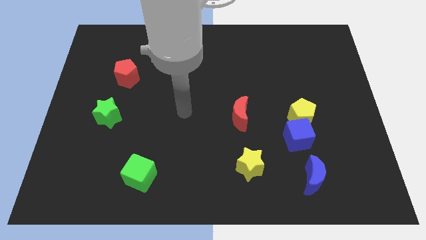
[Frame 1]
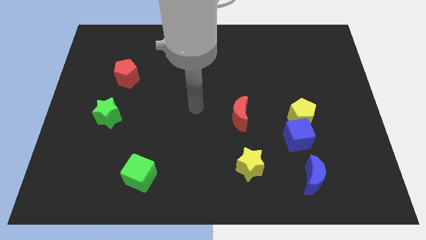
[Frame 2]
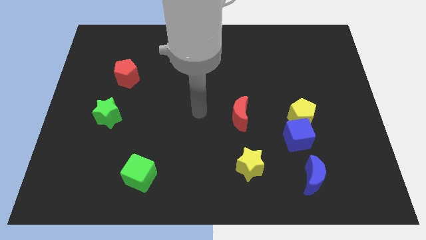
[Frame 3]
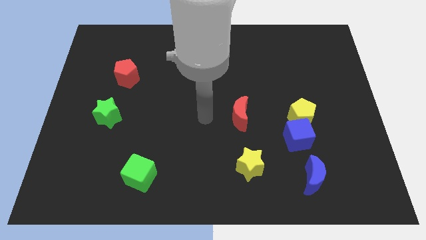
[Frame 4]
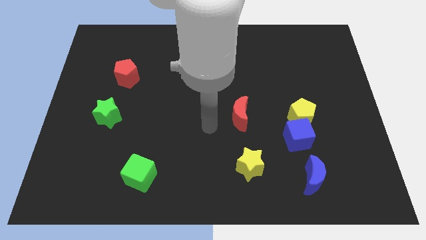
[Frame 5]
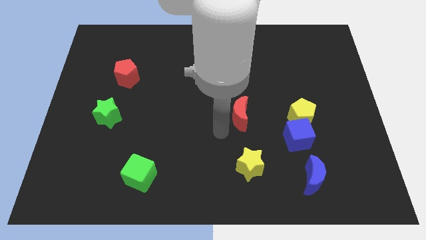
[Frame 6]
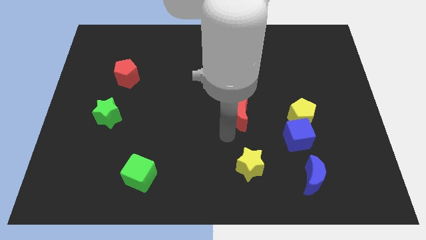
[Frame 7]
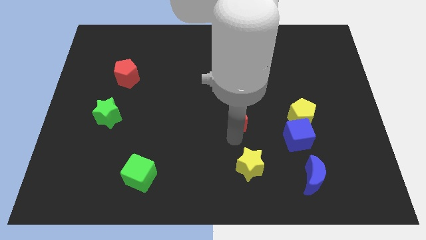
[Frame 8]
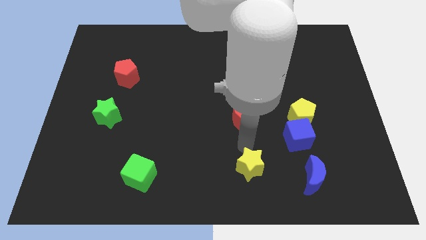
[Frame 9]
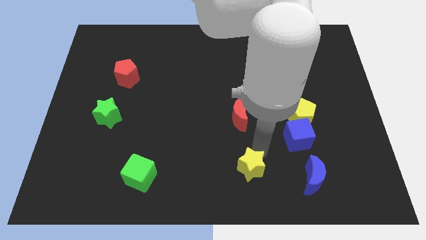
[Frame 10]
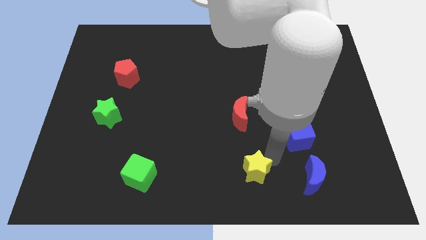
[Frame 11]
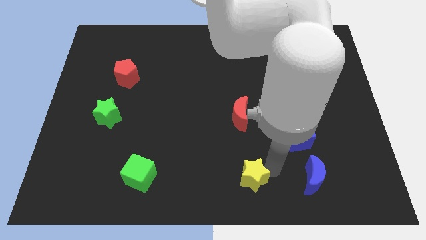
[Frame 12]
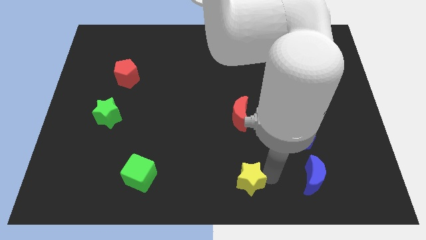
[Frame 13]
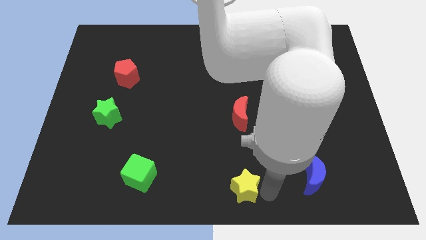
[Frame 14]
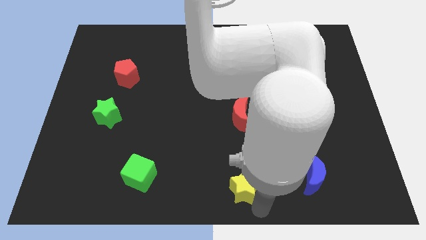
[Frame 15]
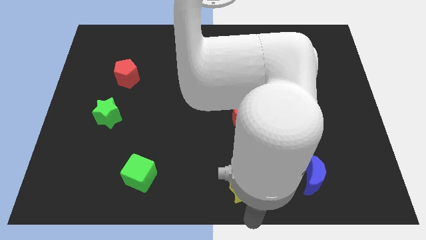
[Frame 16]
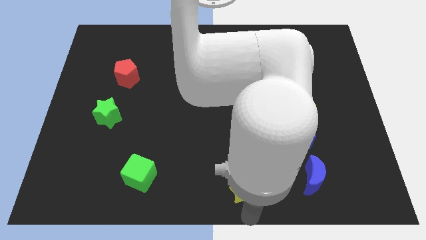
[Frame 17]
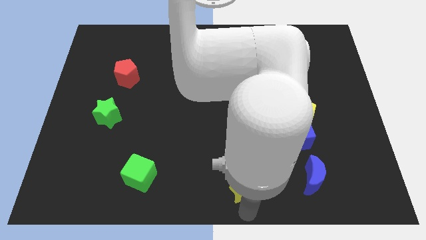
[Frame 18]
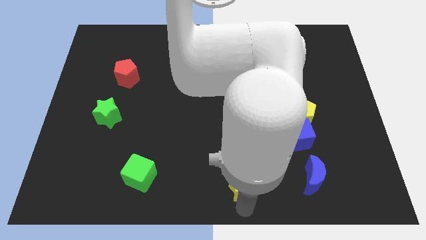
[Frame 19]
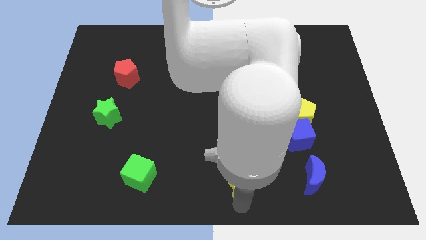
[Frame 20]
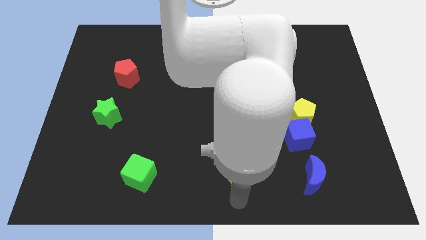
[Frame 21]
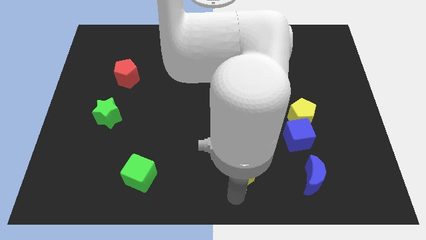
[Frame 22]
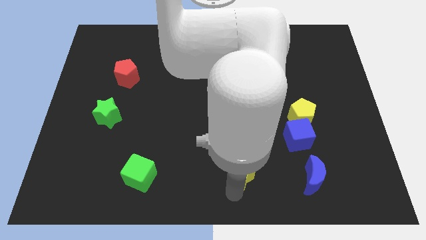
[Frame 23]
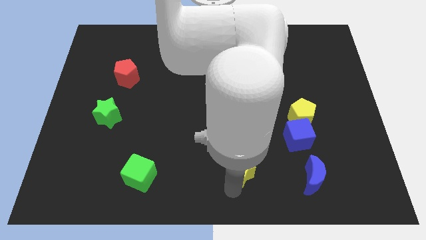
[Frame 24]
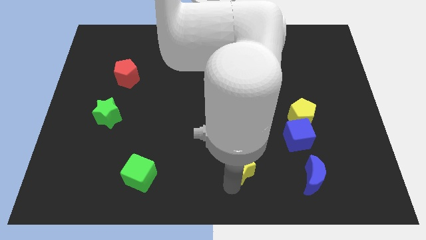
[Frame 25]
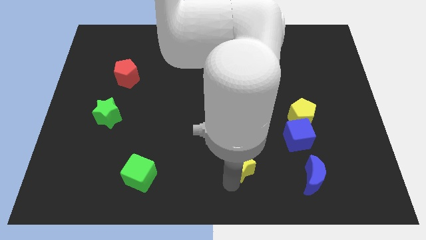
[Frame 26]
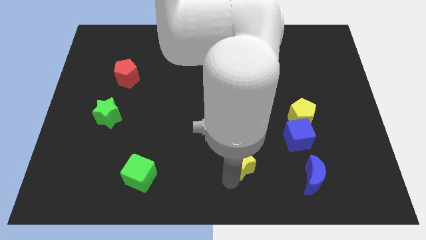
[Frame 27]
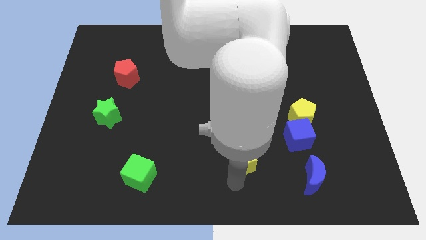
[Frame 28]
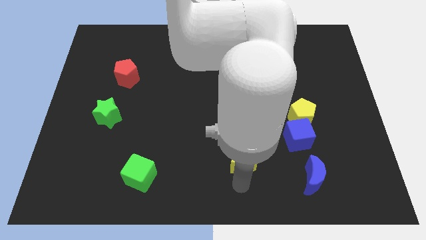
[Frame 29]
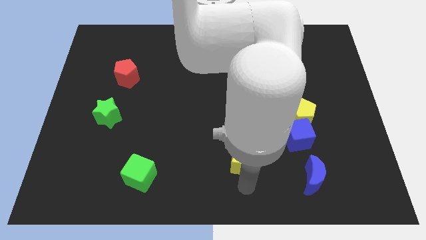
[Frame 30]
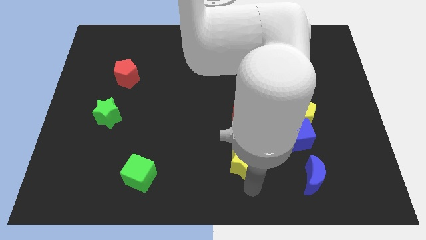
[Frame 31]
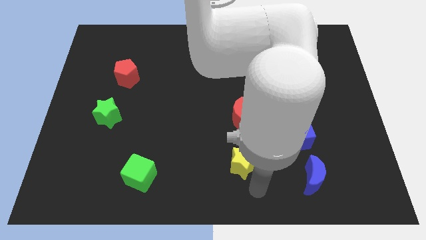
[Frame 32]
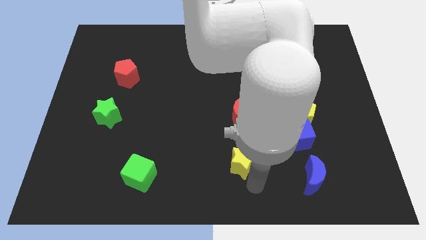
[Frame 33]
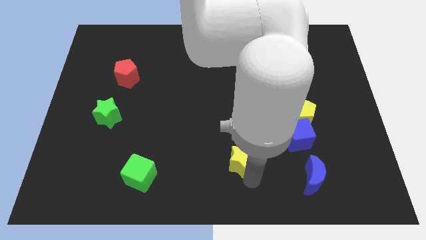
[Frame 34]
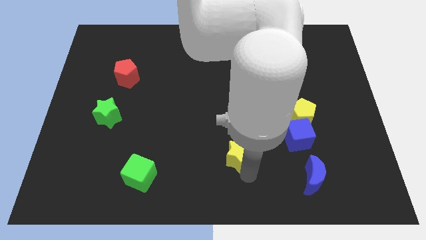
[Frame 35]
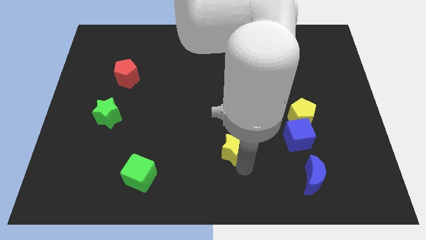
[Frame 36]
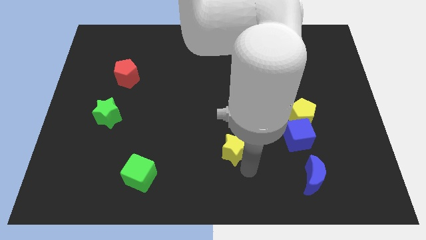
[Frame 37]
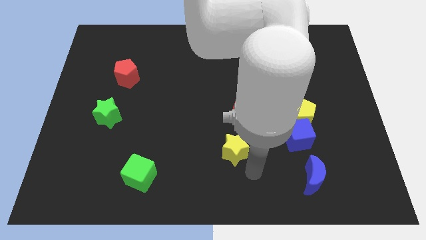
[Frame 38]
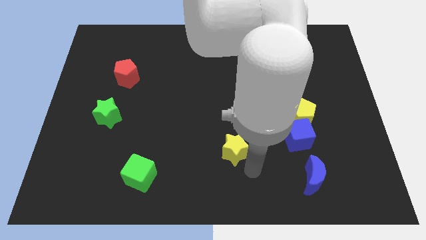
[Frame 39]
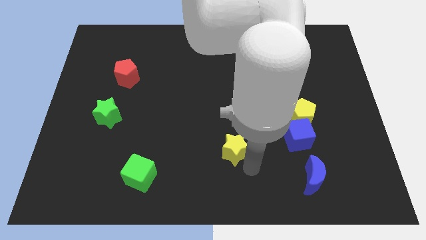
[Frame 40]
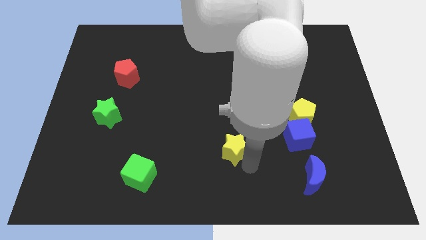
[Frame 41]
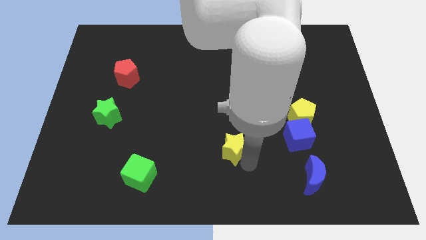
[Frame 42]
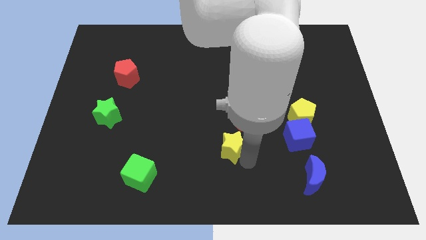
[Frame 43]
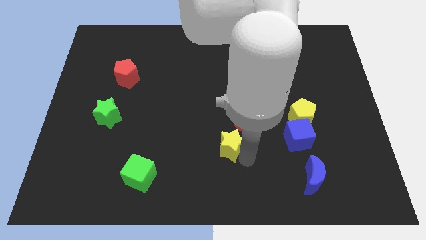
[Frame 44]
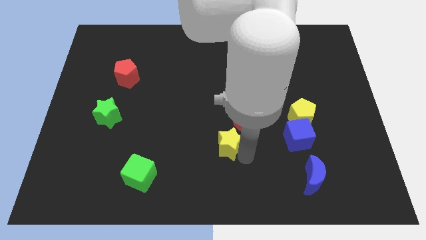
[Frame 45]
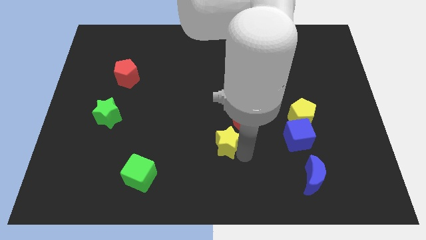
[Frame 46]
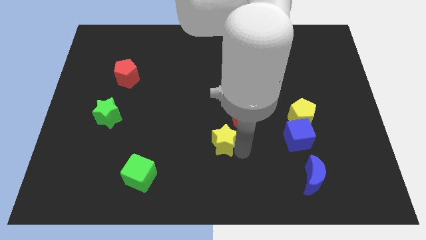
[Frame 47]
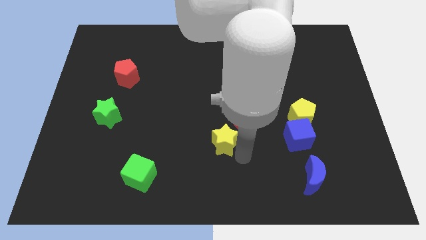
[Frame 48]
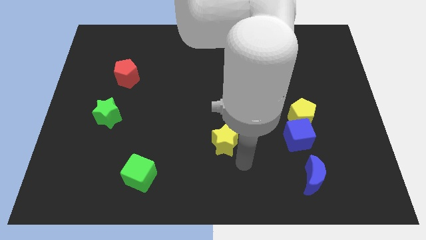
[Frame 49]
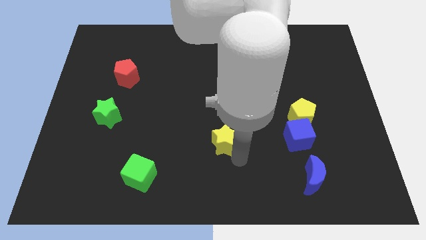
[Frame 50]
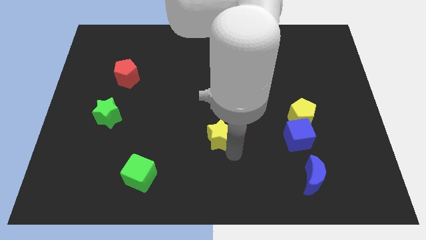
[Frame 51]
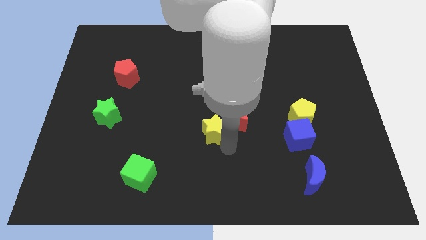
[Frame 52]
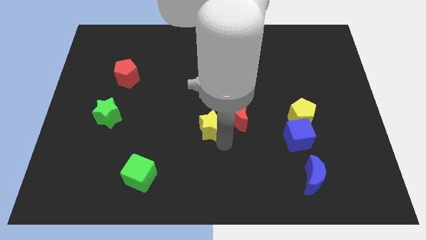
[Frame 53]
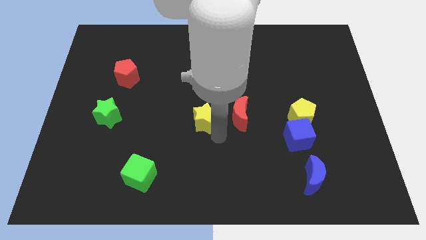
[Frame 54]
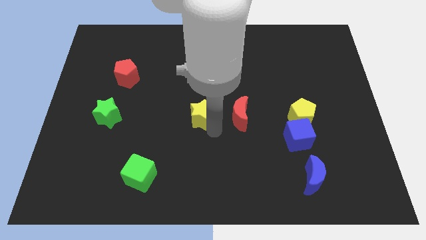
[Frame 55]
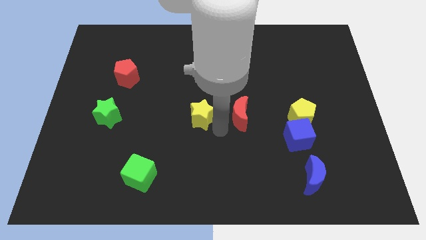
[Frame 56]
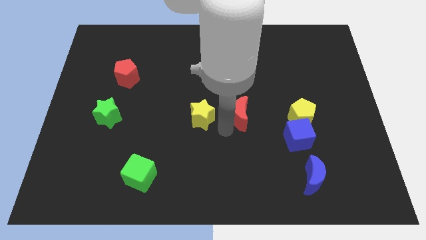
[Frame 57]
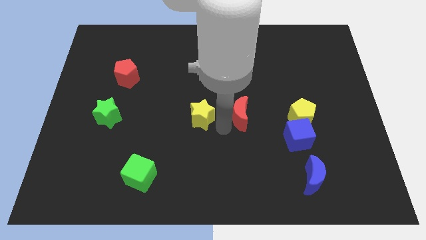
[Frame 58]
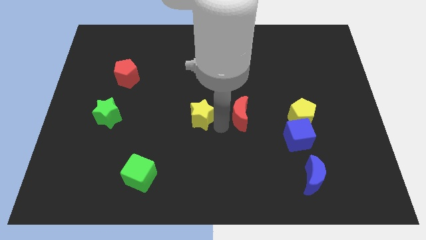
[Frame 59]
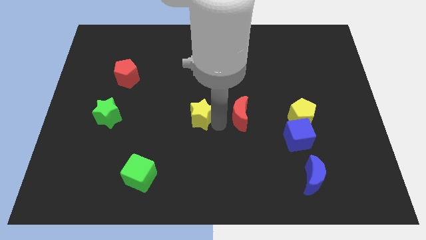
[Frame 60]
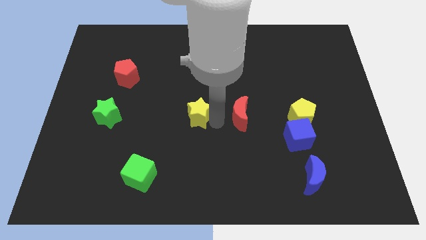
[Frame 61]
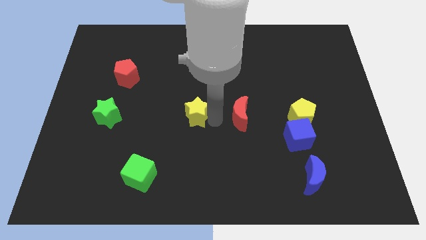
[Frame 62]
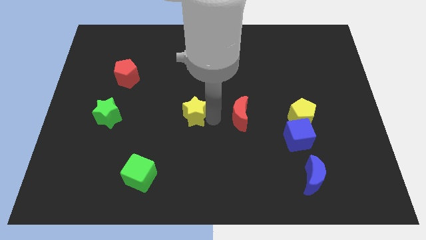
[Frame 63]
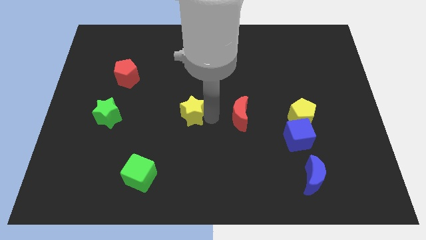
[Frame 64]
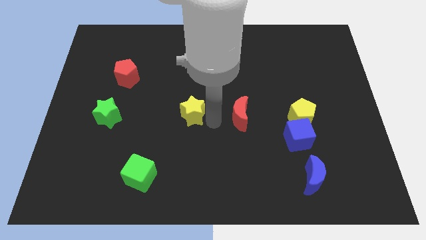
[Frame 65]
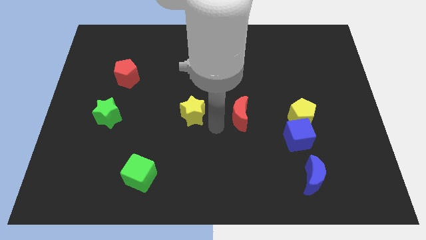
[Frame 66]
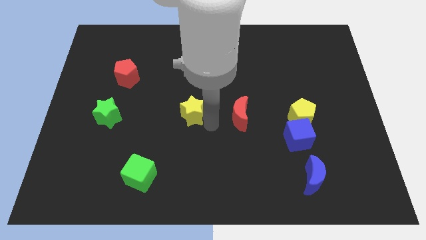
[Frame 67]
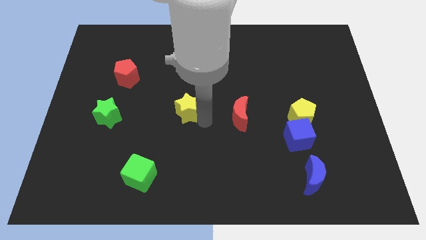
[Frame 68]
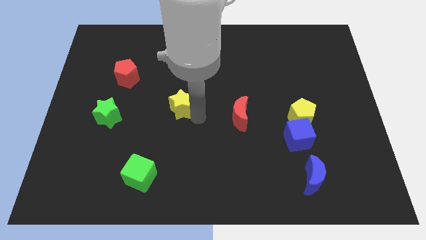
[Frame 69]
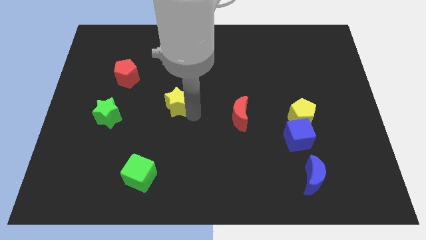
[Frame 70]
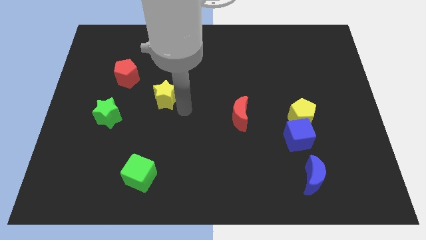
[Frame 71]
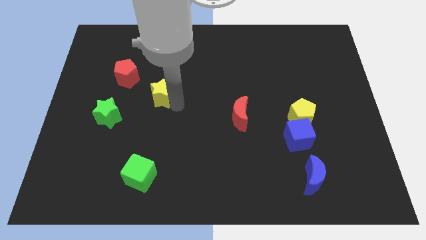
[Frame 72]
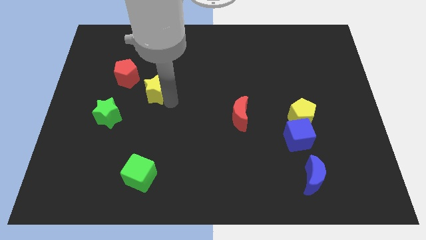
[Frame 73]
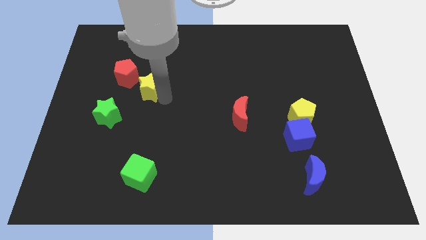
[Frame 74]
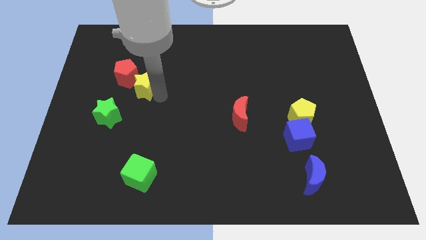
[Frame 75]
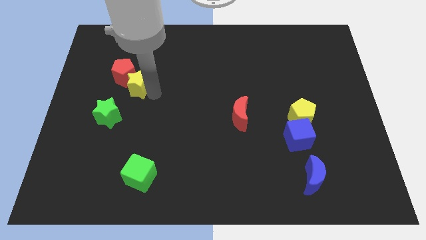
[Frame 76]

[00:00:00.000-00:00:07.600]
slide the yellow star to the red pentagon
